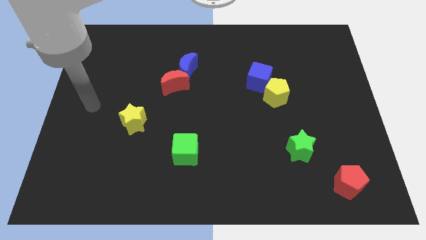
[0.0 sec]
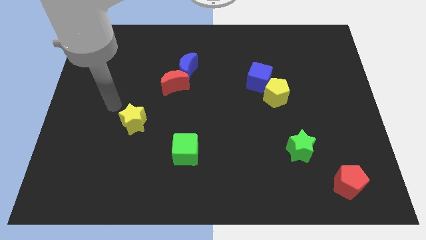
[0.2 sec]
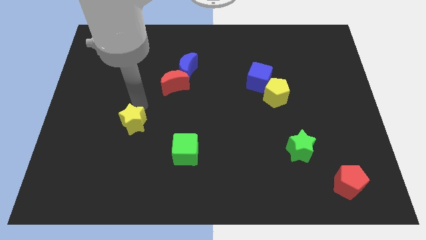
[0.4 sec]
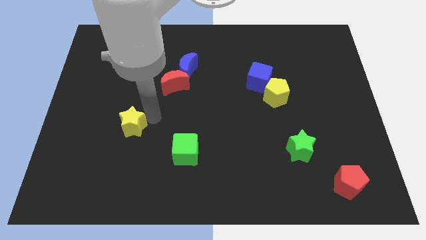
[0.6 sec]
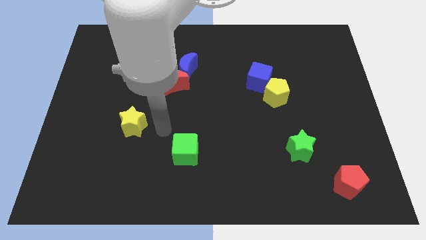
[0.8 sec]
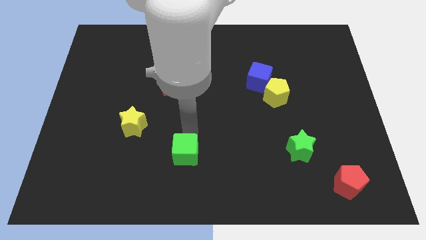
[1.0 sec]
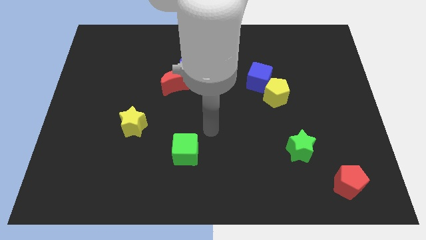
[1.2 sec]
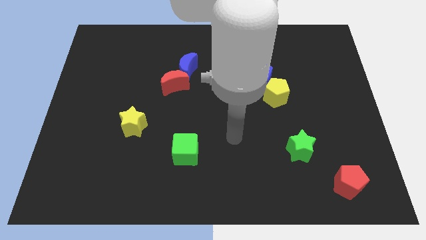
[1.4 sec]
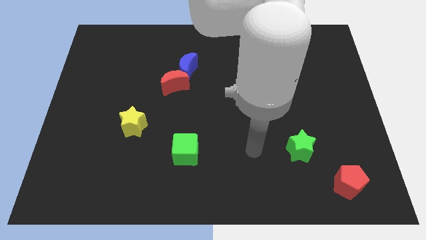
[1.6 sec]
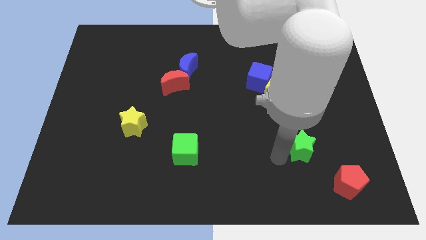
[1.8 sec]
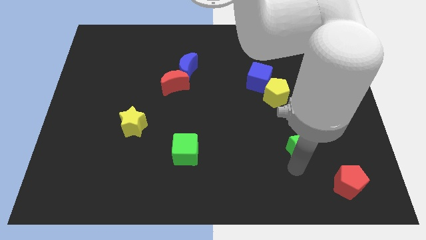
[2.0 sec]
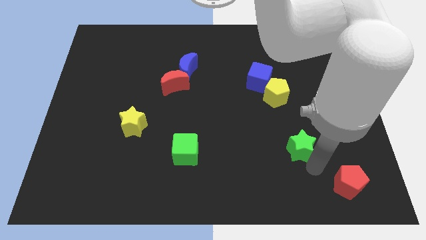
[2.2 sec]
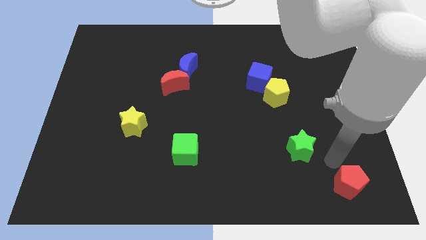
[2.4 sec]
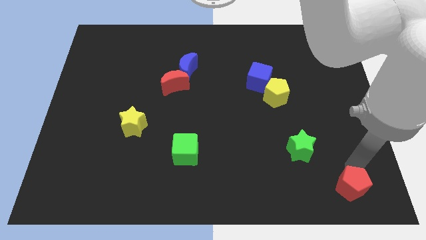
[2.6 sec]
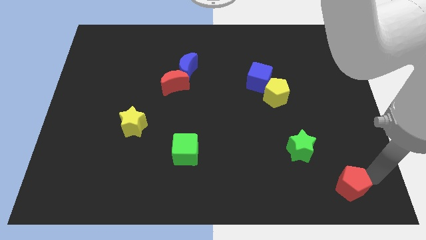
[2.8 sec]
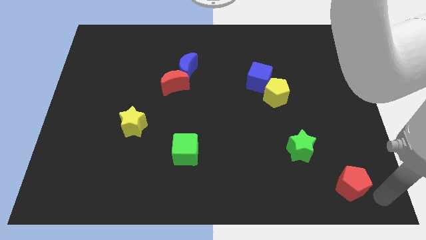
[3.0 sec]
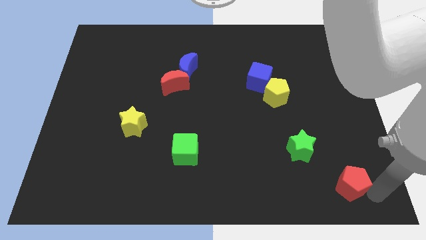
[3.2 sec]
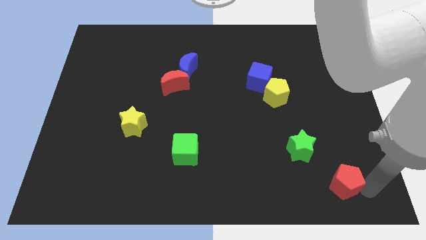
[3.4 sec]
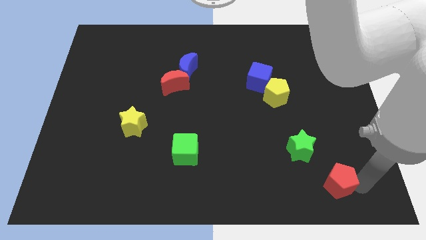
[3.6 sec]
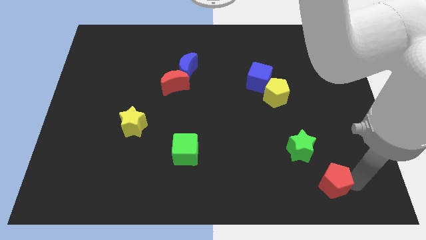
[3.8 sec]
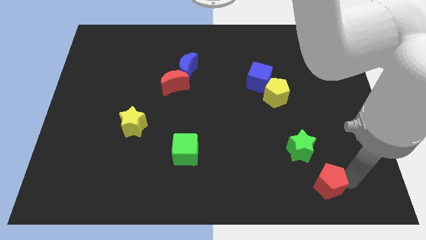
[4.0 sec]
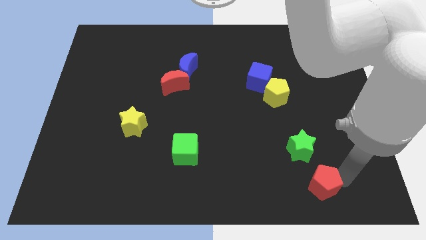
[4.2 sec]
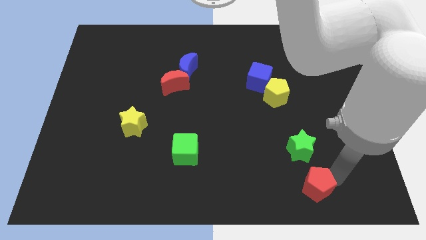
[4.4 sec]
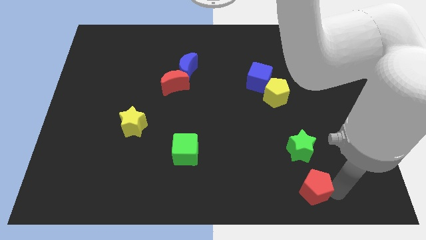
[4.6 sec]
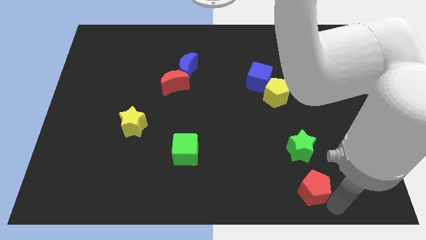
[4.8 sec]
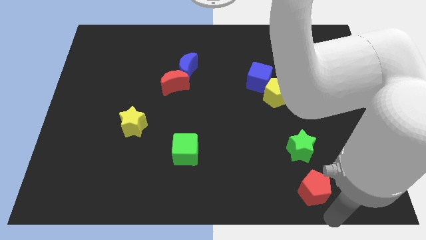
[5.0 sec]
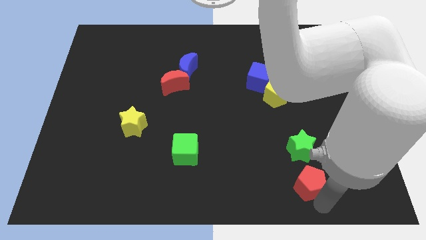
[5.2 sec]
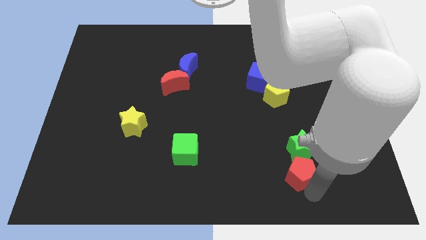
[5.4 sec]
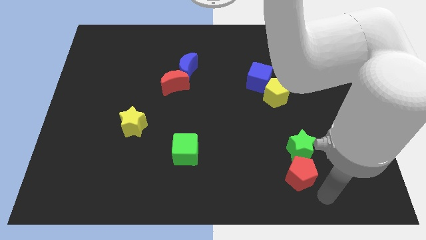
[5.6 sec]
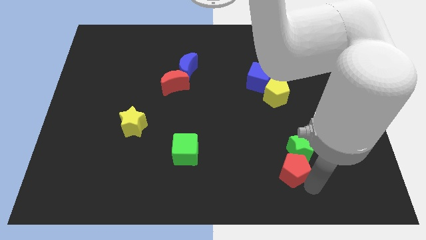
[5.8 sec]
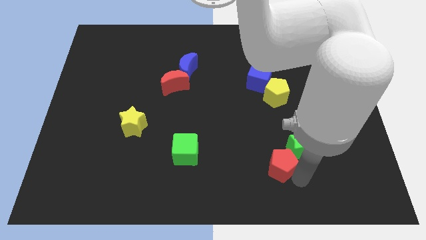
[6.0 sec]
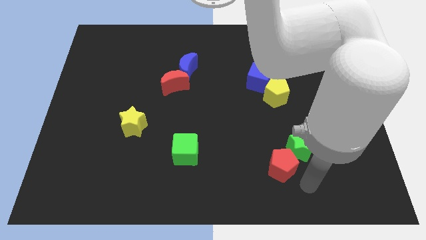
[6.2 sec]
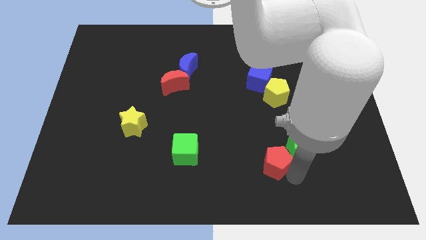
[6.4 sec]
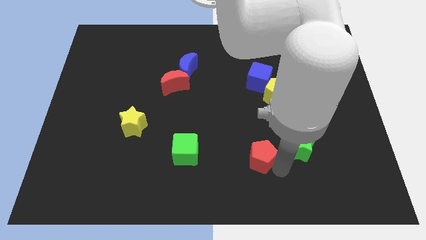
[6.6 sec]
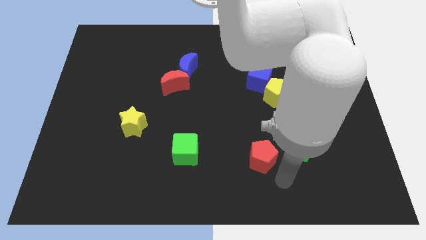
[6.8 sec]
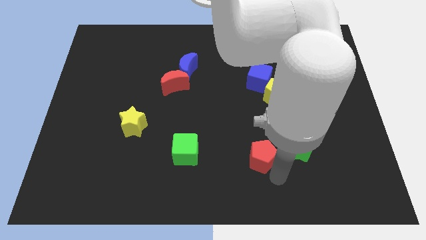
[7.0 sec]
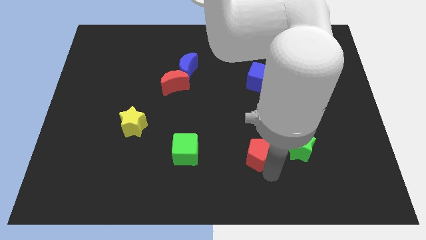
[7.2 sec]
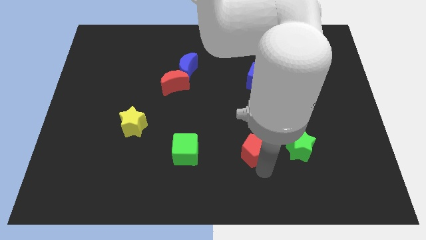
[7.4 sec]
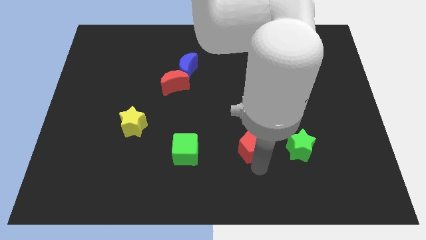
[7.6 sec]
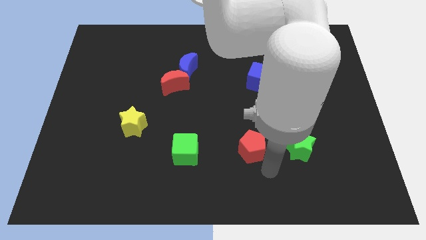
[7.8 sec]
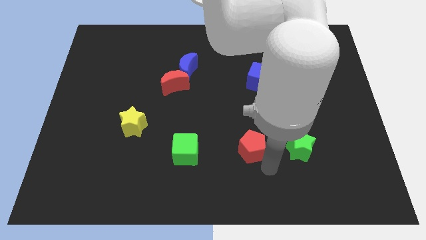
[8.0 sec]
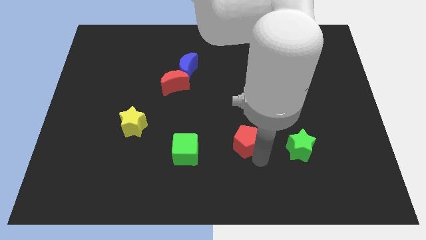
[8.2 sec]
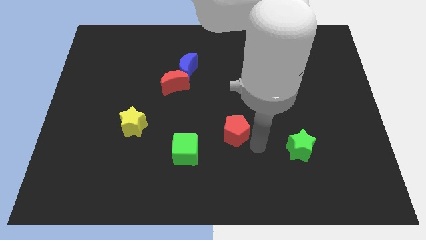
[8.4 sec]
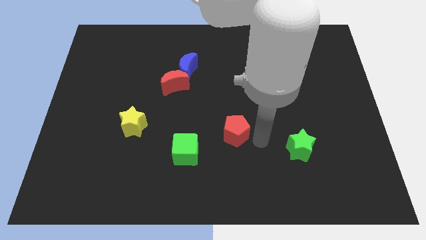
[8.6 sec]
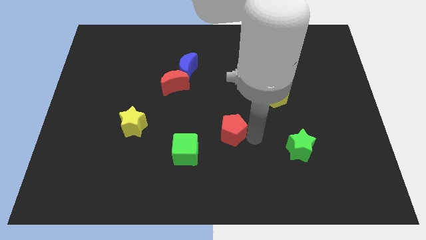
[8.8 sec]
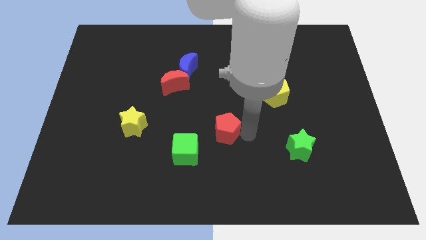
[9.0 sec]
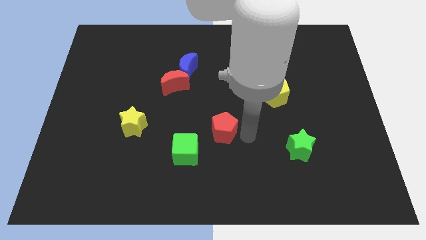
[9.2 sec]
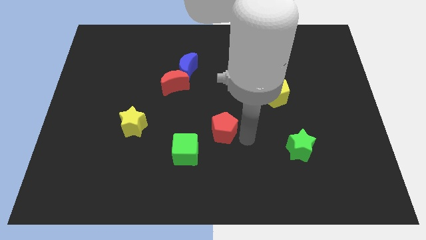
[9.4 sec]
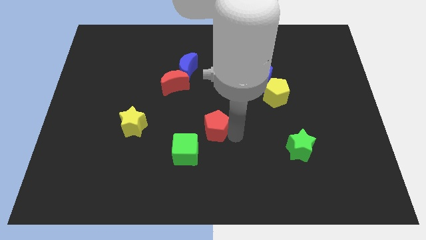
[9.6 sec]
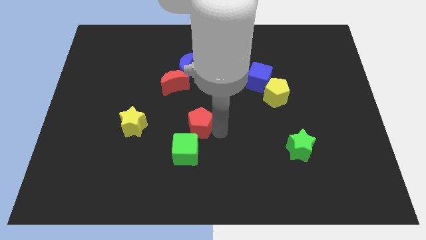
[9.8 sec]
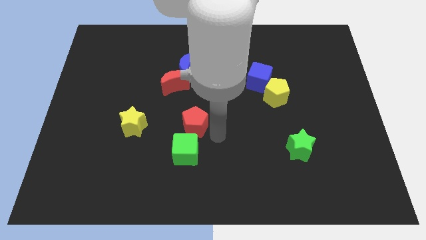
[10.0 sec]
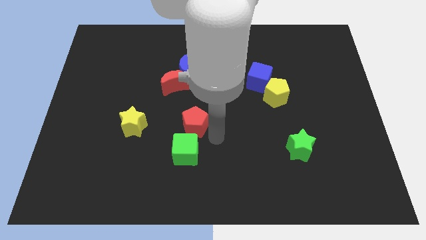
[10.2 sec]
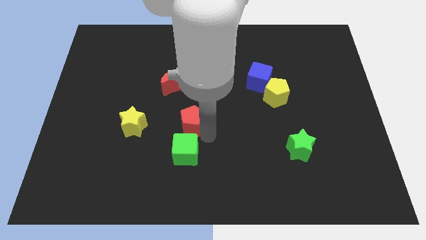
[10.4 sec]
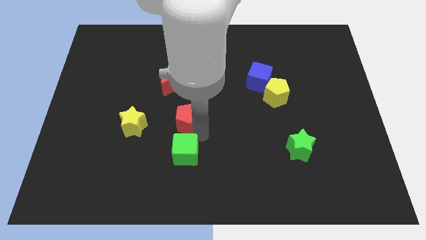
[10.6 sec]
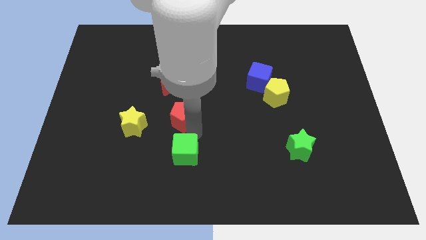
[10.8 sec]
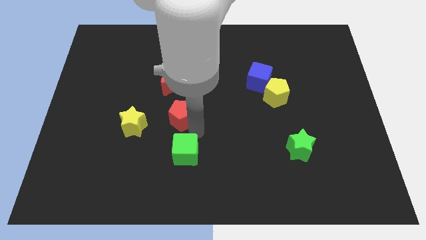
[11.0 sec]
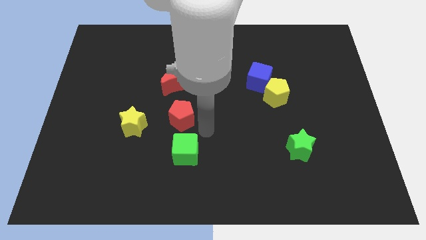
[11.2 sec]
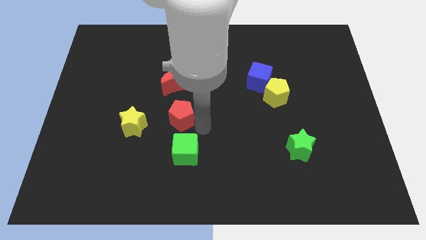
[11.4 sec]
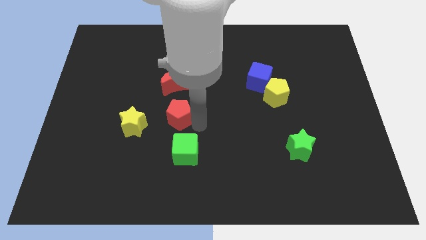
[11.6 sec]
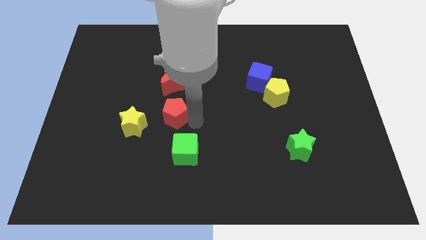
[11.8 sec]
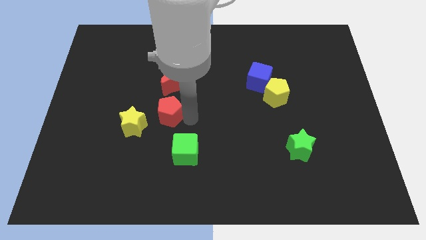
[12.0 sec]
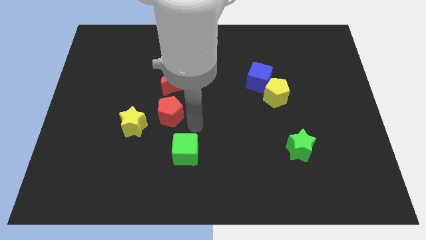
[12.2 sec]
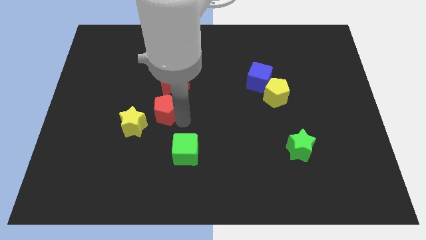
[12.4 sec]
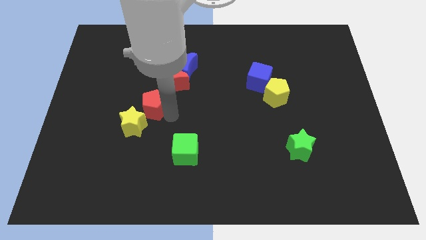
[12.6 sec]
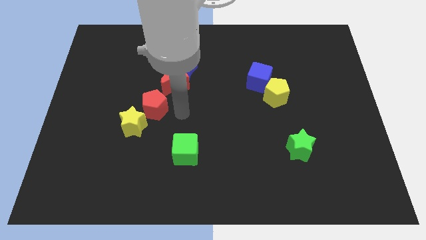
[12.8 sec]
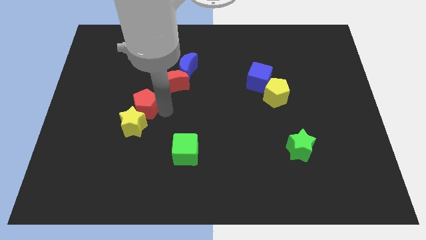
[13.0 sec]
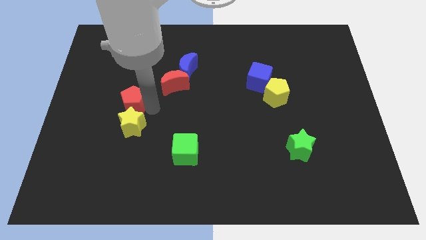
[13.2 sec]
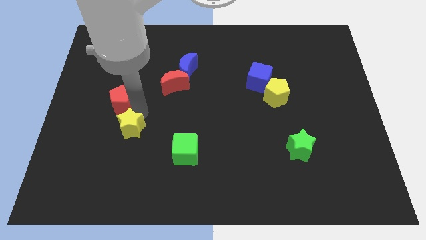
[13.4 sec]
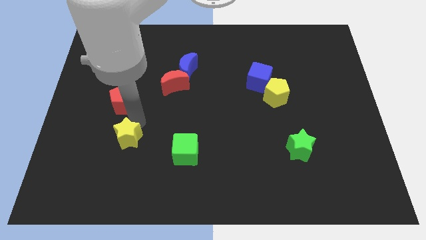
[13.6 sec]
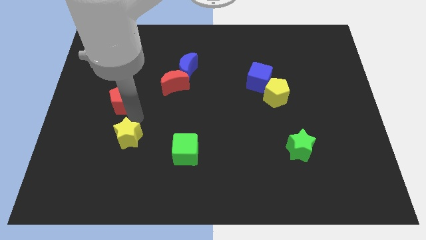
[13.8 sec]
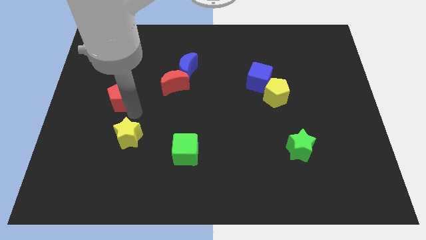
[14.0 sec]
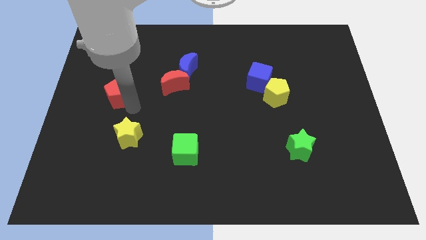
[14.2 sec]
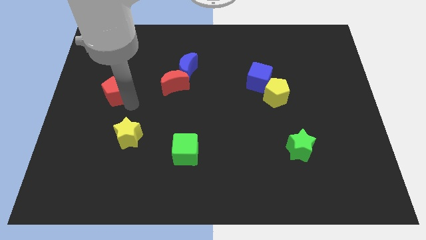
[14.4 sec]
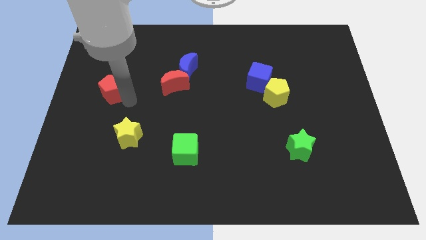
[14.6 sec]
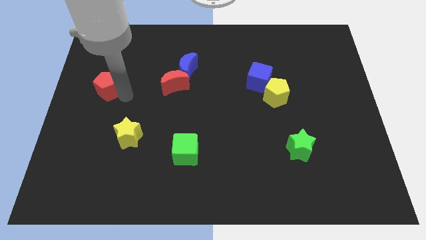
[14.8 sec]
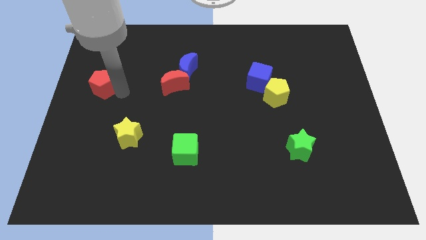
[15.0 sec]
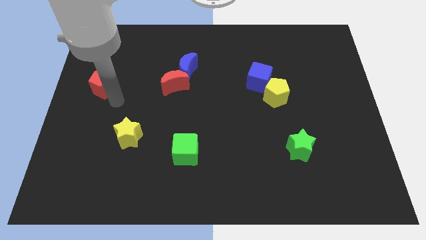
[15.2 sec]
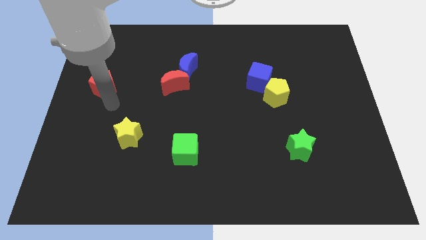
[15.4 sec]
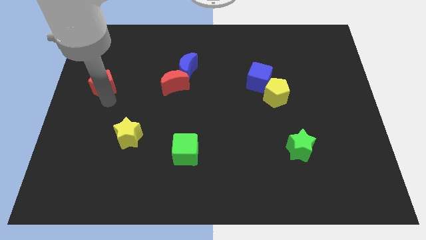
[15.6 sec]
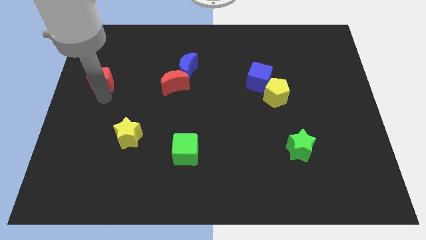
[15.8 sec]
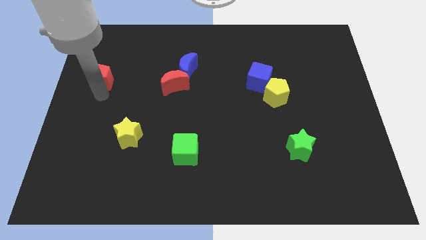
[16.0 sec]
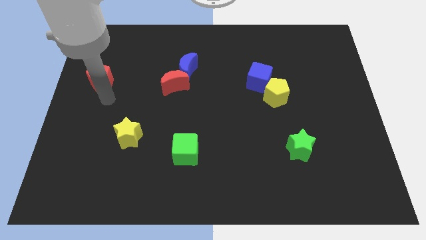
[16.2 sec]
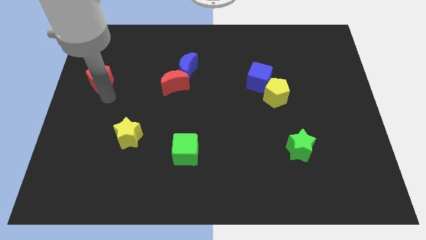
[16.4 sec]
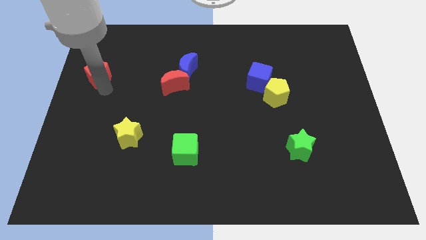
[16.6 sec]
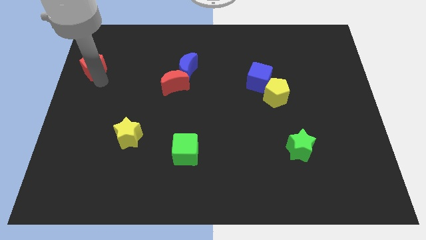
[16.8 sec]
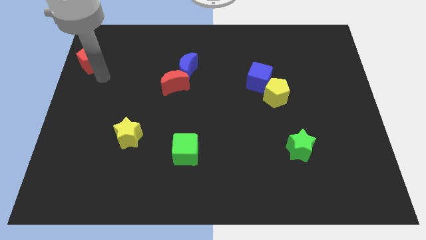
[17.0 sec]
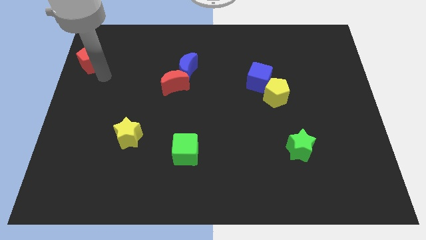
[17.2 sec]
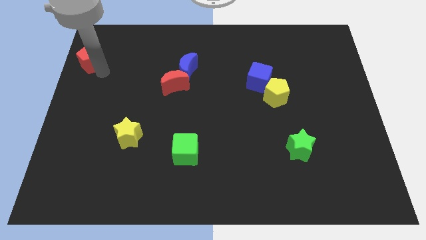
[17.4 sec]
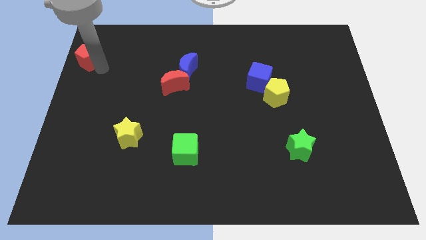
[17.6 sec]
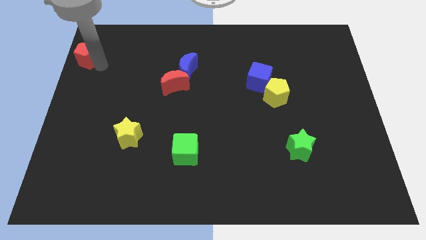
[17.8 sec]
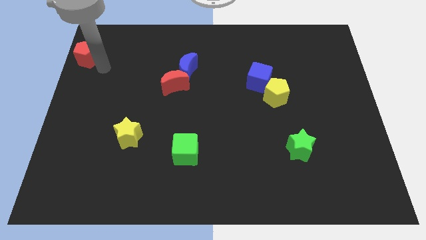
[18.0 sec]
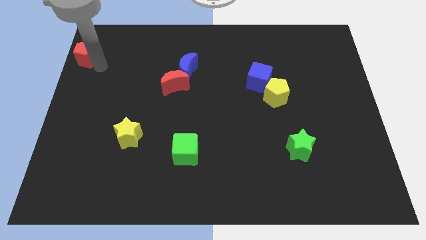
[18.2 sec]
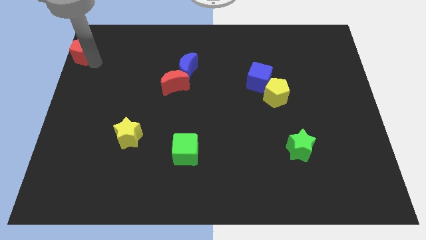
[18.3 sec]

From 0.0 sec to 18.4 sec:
put the red pentagon to the upper left corner
